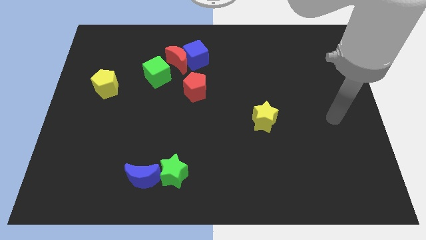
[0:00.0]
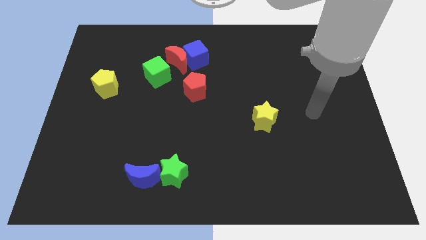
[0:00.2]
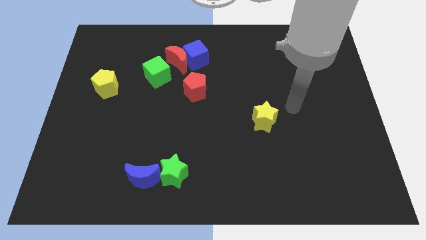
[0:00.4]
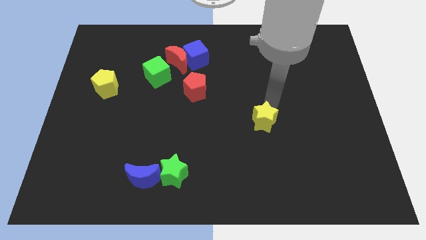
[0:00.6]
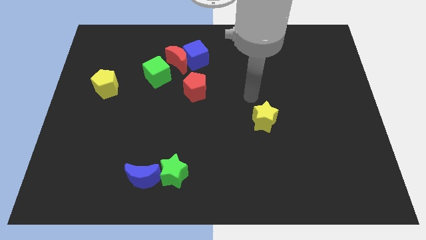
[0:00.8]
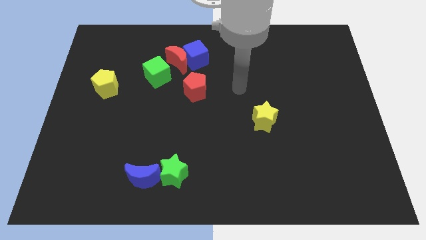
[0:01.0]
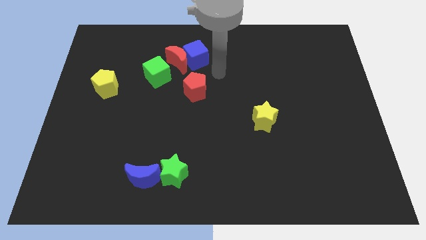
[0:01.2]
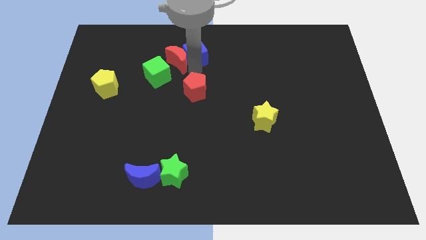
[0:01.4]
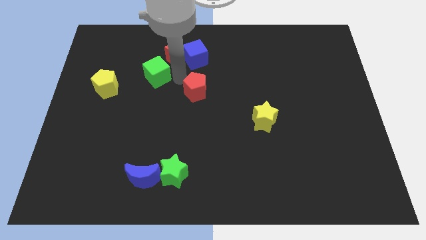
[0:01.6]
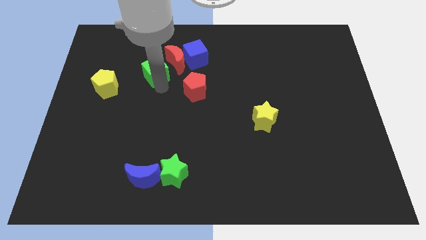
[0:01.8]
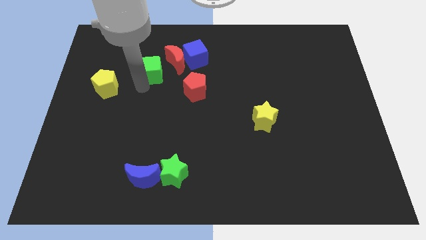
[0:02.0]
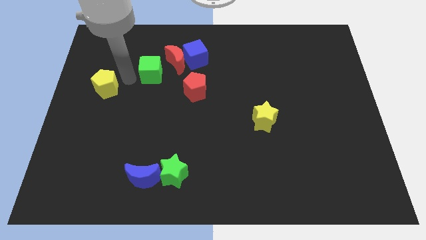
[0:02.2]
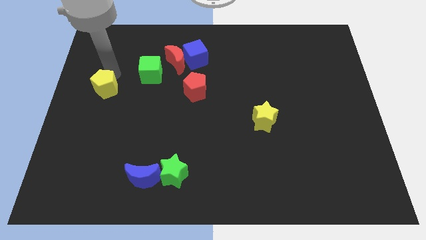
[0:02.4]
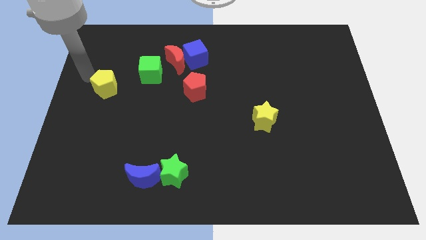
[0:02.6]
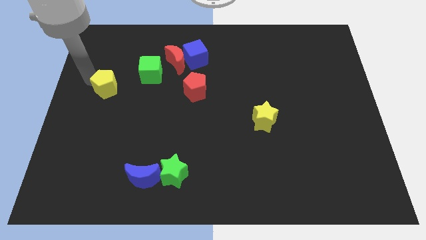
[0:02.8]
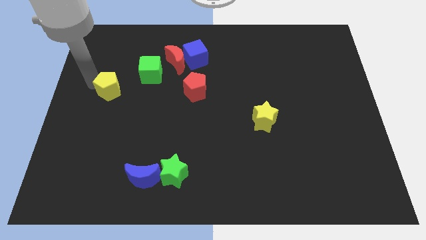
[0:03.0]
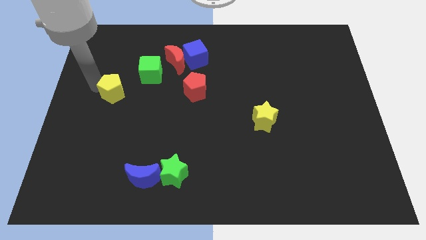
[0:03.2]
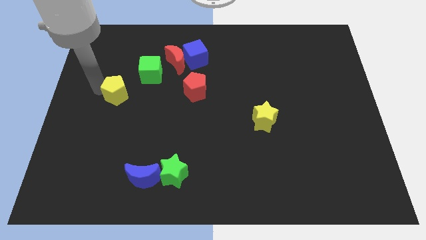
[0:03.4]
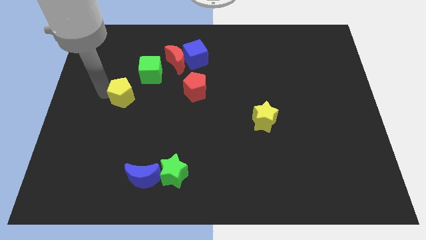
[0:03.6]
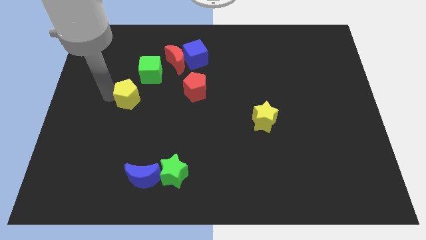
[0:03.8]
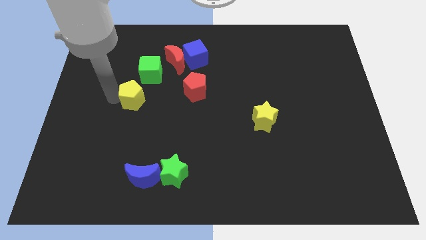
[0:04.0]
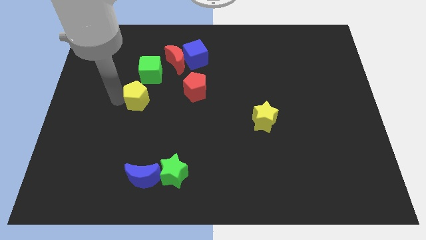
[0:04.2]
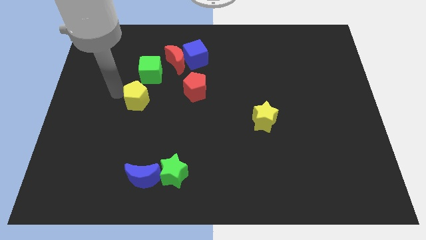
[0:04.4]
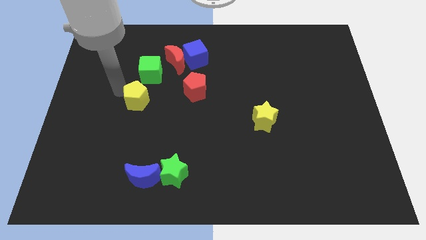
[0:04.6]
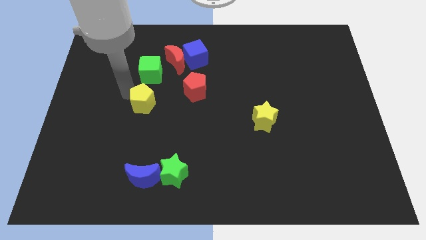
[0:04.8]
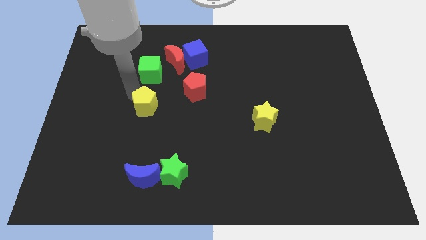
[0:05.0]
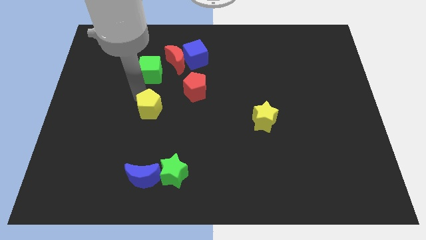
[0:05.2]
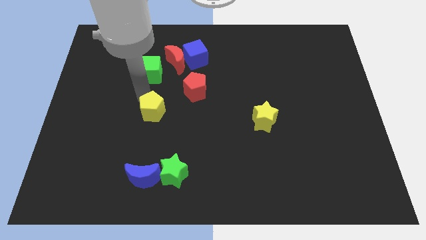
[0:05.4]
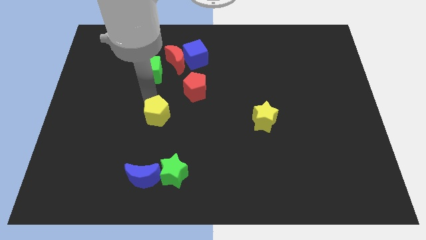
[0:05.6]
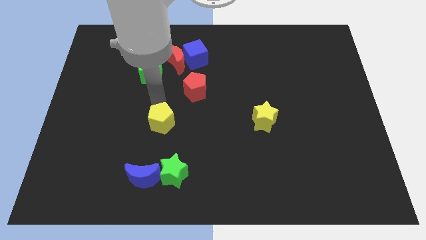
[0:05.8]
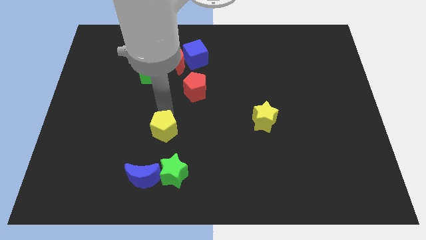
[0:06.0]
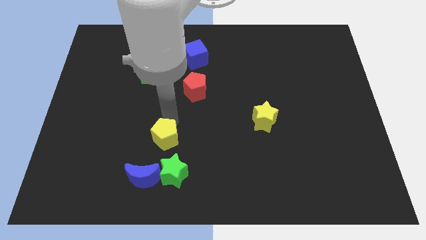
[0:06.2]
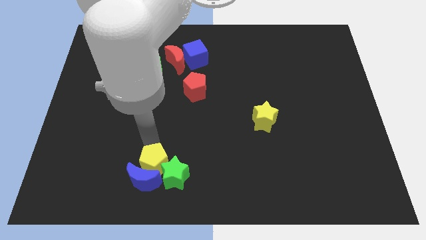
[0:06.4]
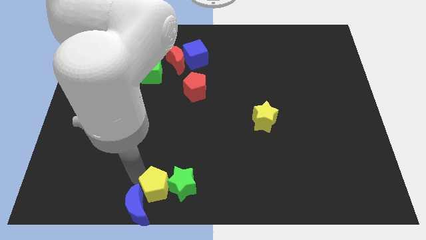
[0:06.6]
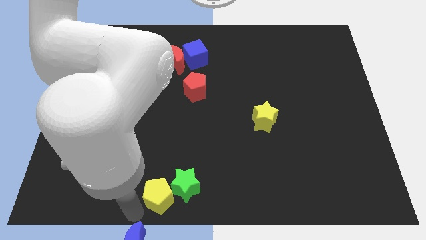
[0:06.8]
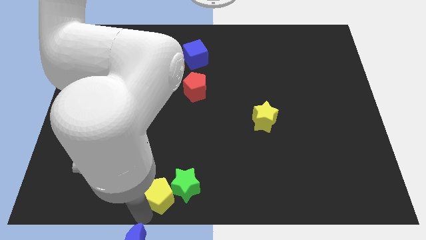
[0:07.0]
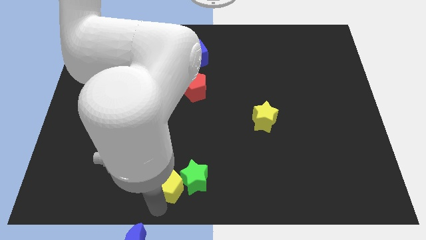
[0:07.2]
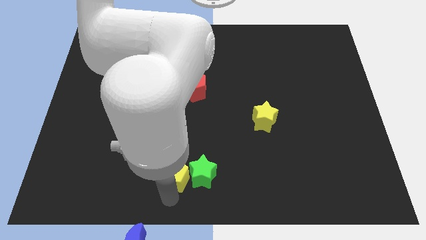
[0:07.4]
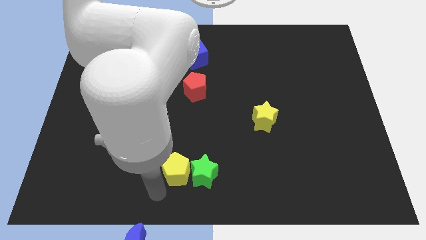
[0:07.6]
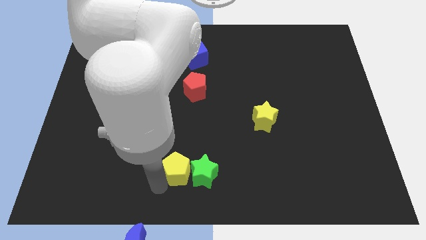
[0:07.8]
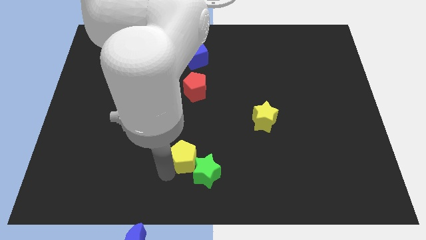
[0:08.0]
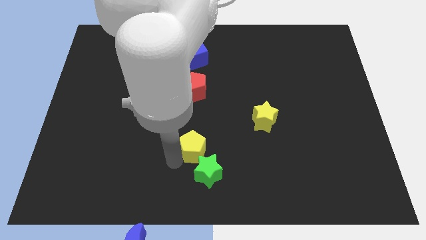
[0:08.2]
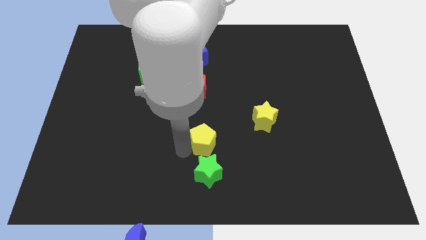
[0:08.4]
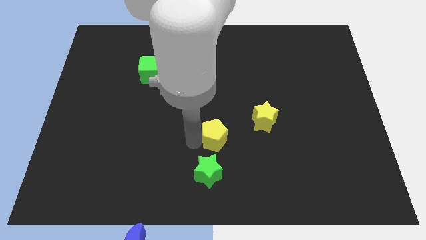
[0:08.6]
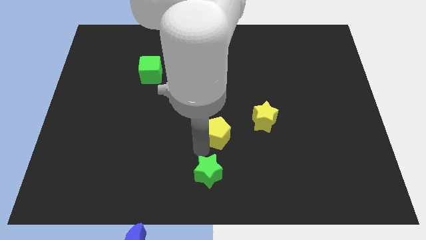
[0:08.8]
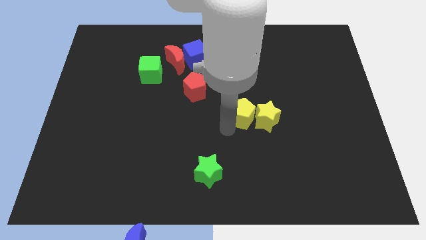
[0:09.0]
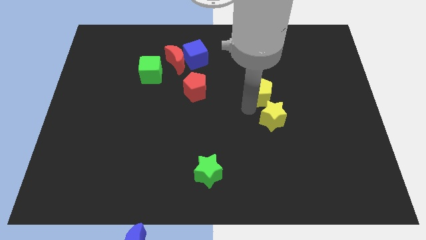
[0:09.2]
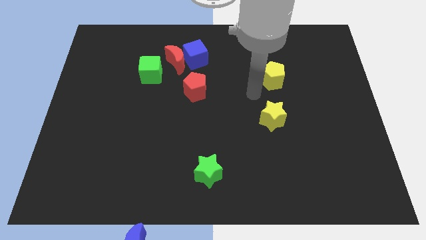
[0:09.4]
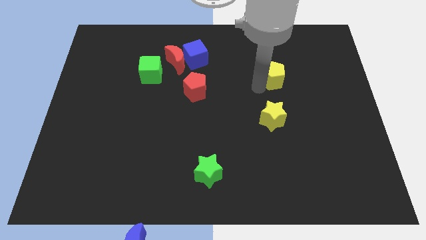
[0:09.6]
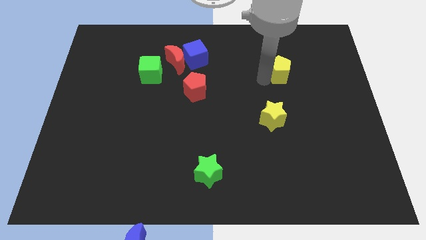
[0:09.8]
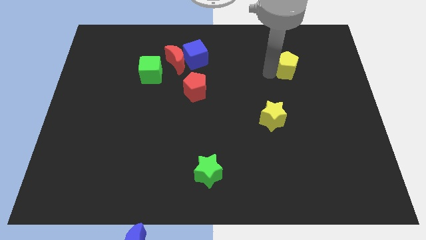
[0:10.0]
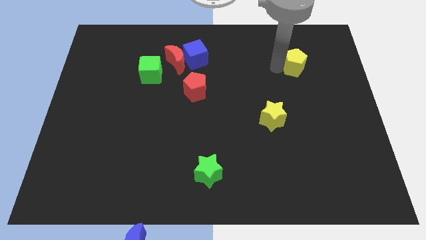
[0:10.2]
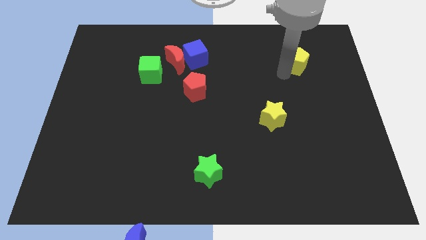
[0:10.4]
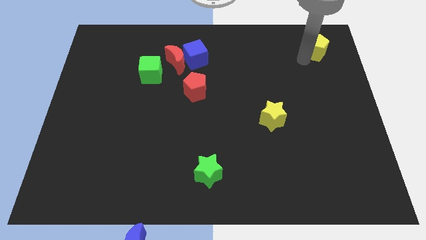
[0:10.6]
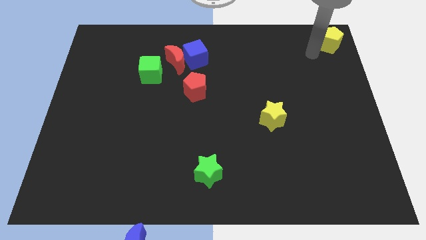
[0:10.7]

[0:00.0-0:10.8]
push the yellow pentagon to the top right

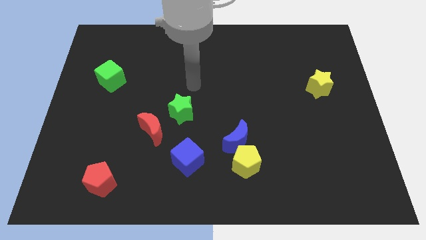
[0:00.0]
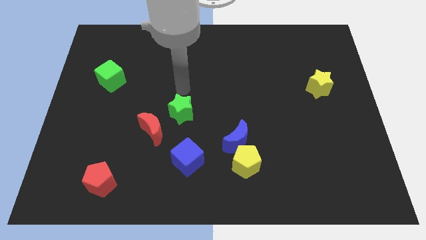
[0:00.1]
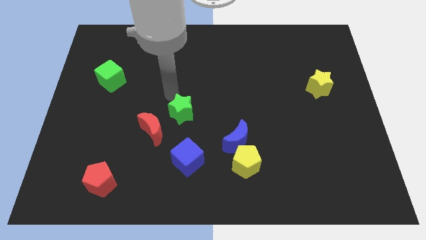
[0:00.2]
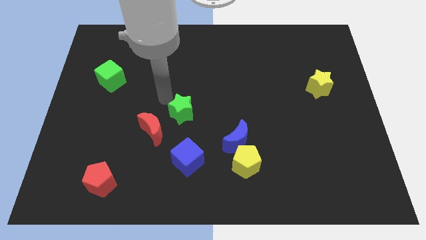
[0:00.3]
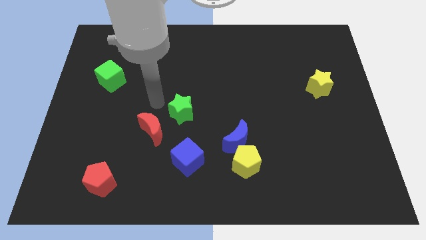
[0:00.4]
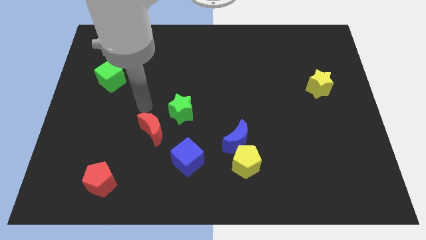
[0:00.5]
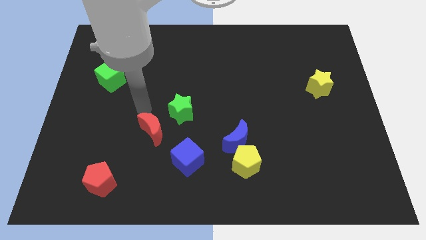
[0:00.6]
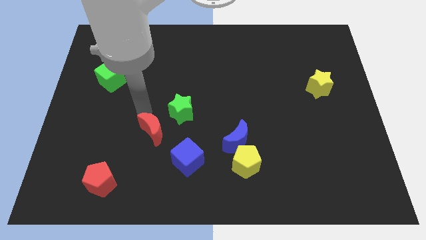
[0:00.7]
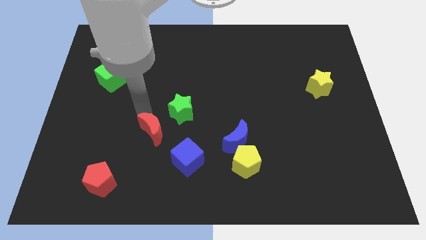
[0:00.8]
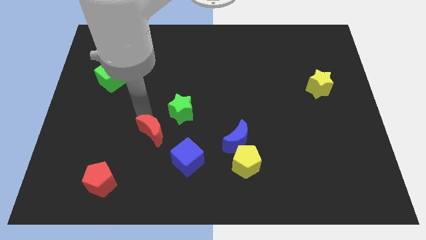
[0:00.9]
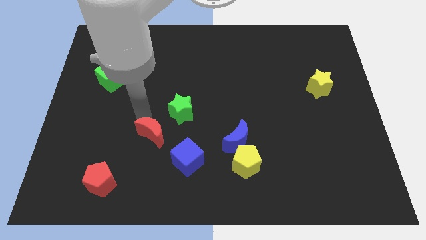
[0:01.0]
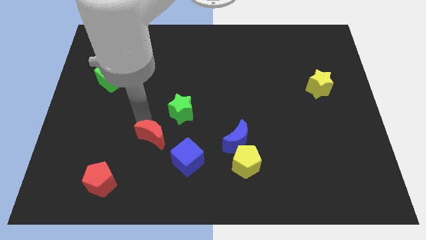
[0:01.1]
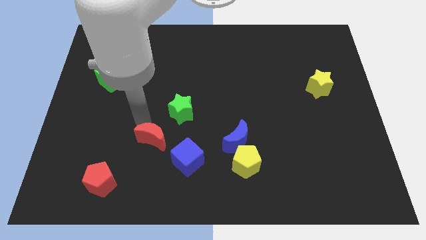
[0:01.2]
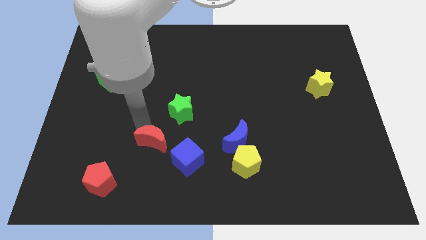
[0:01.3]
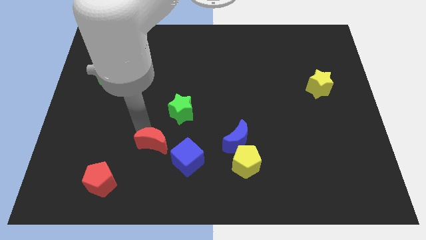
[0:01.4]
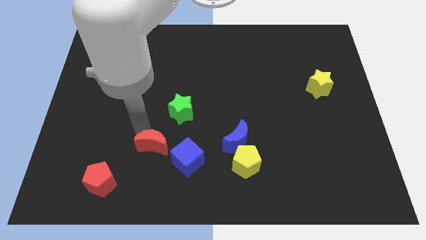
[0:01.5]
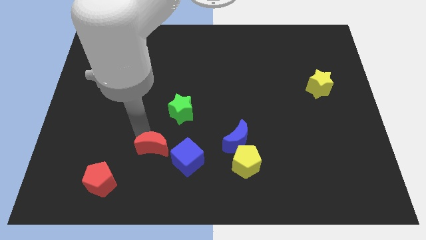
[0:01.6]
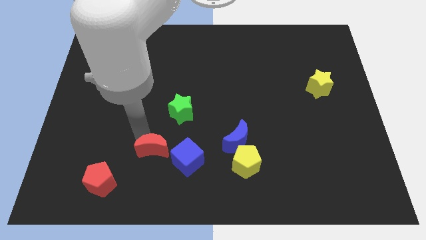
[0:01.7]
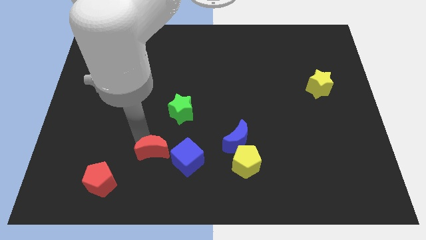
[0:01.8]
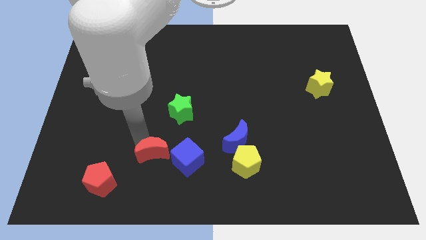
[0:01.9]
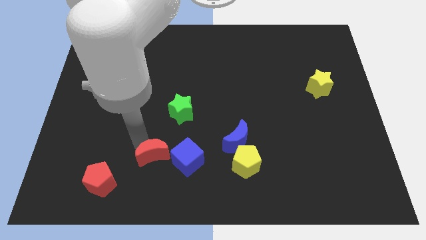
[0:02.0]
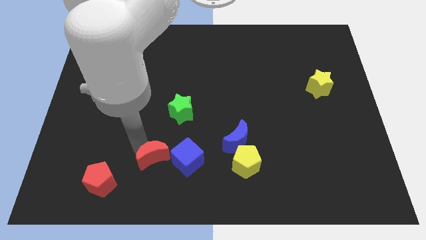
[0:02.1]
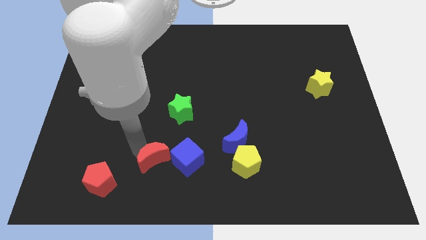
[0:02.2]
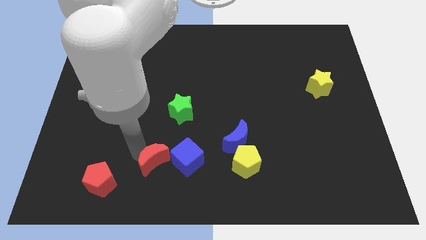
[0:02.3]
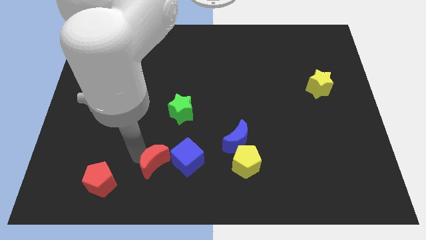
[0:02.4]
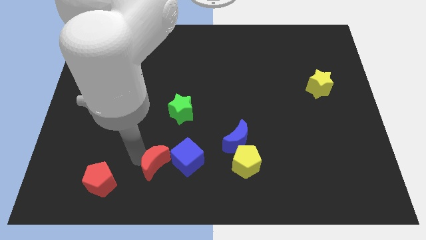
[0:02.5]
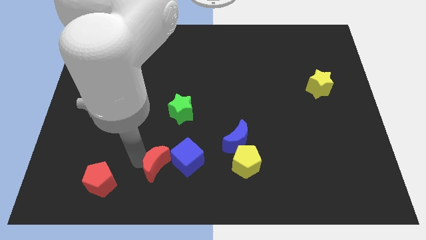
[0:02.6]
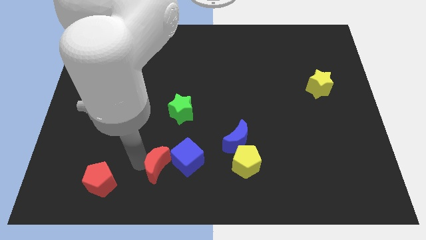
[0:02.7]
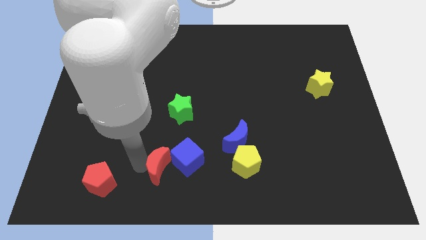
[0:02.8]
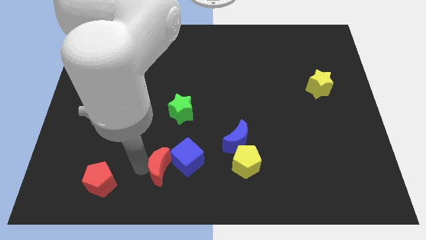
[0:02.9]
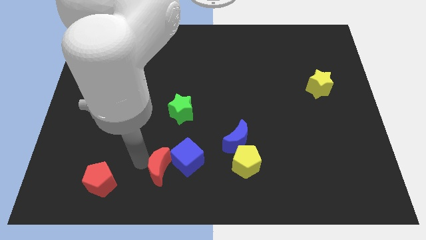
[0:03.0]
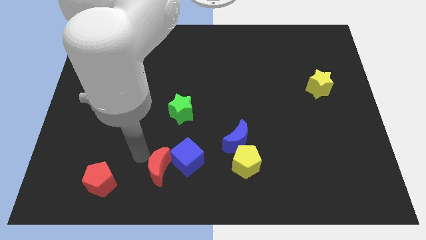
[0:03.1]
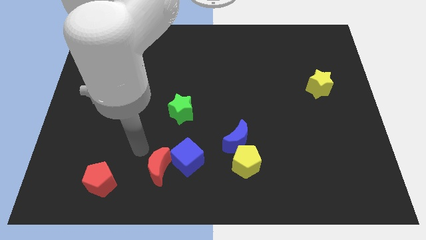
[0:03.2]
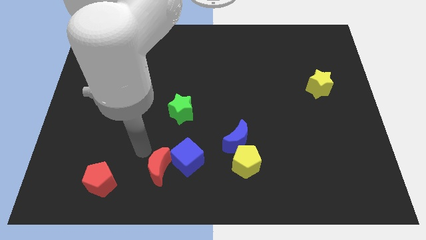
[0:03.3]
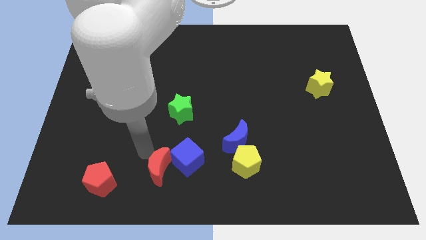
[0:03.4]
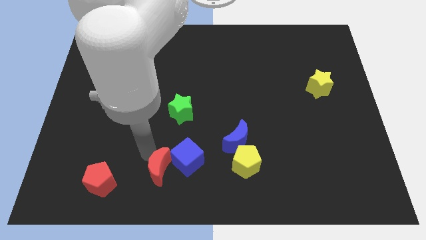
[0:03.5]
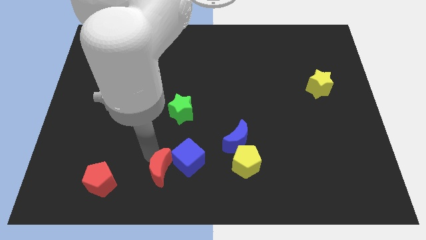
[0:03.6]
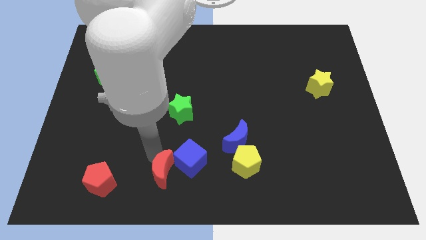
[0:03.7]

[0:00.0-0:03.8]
push the red moon to the bottom side
